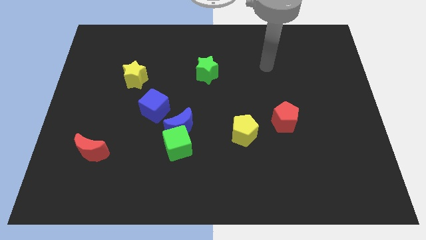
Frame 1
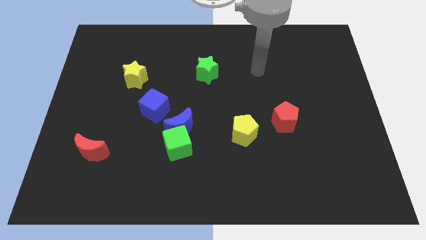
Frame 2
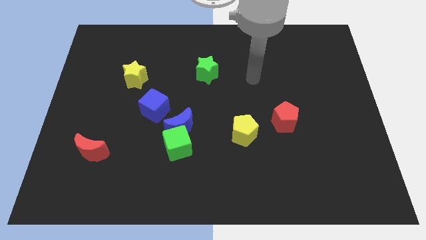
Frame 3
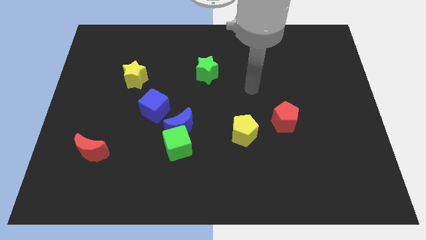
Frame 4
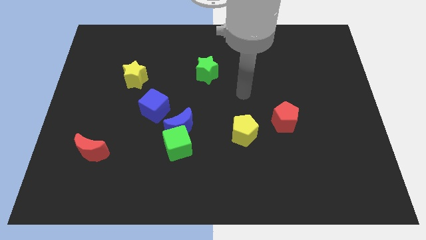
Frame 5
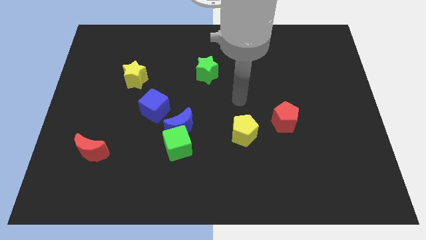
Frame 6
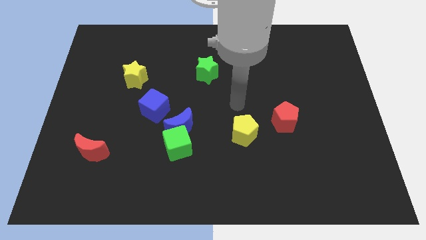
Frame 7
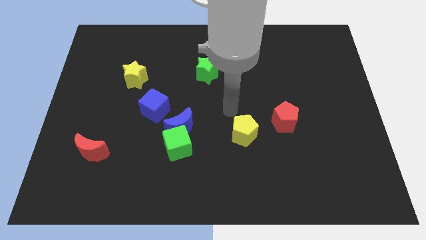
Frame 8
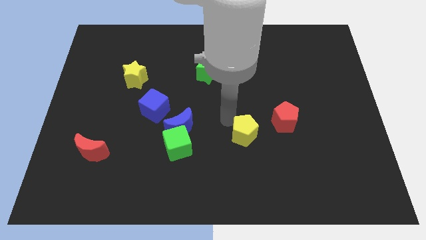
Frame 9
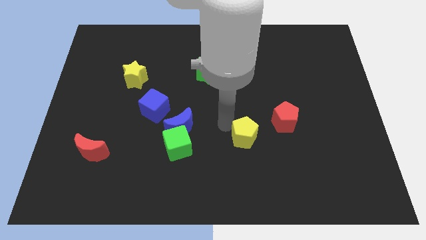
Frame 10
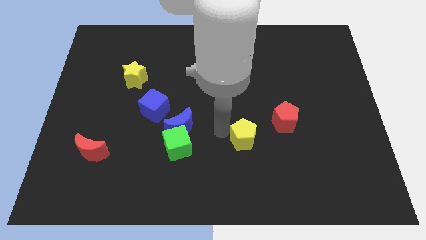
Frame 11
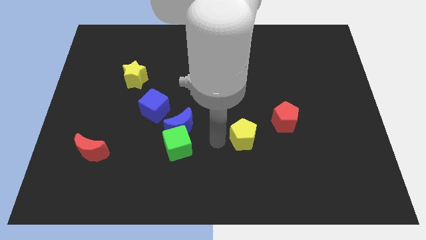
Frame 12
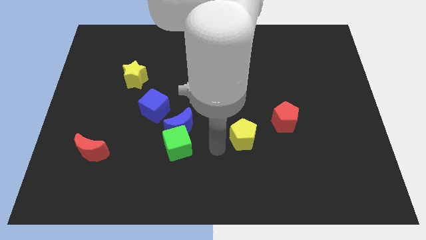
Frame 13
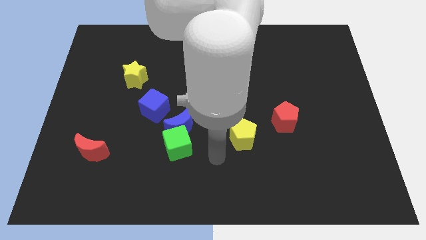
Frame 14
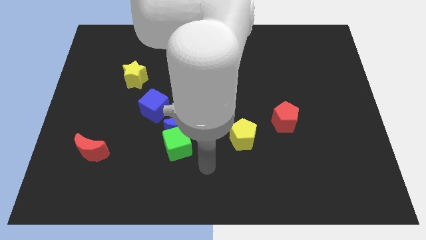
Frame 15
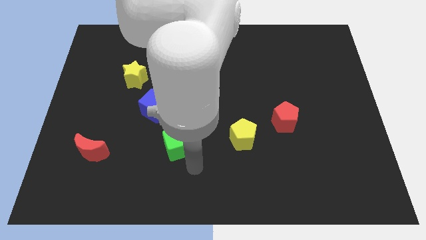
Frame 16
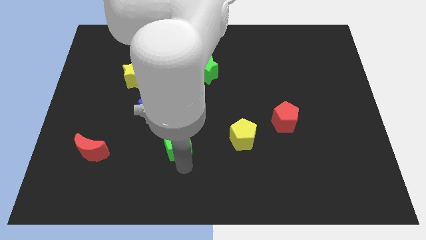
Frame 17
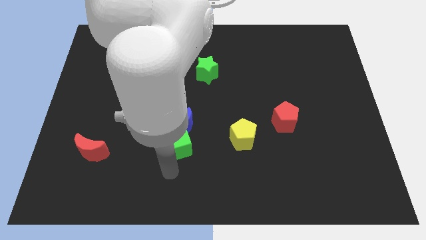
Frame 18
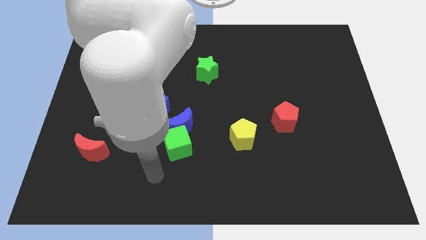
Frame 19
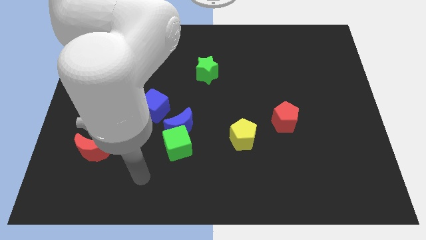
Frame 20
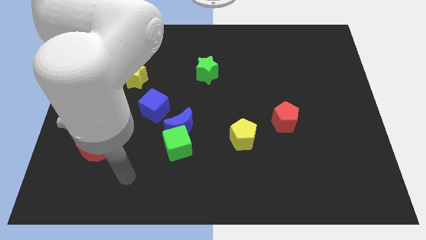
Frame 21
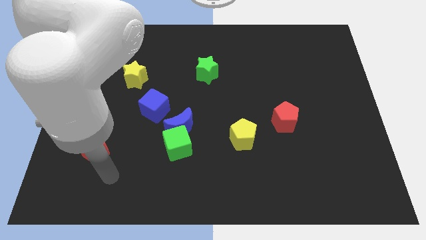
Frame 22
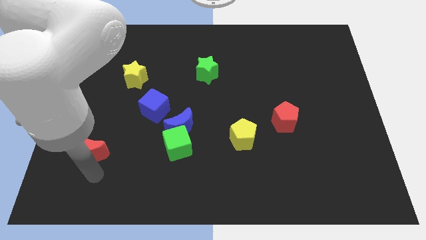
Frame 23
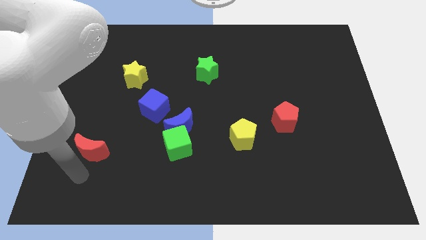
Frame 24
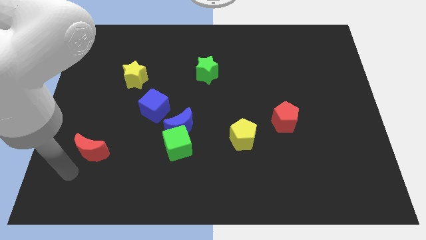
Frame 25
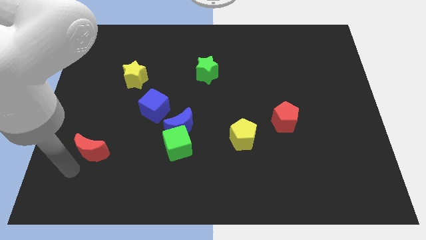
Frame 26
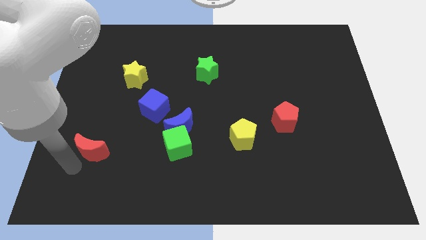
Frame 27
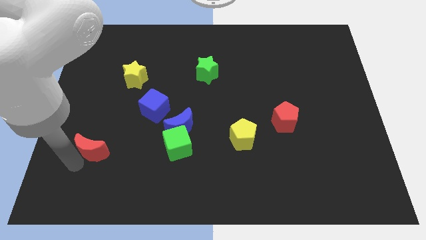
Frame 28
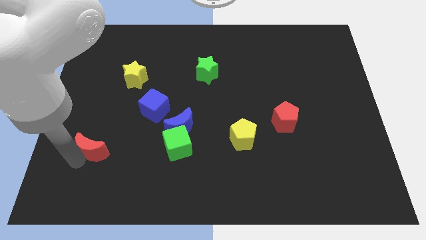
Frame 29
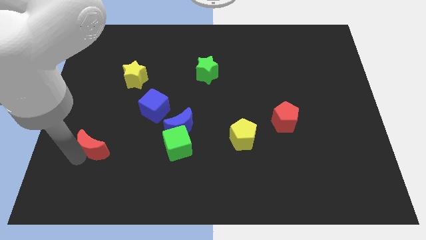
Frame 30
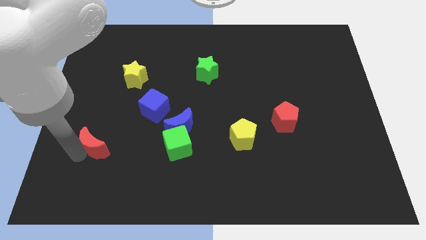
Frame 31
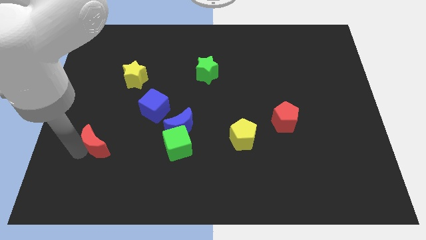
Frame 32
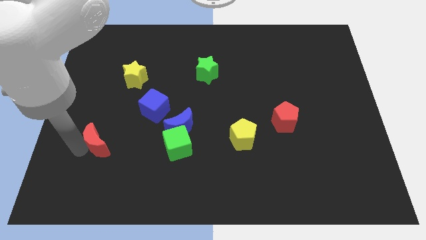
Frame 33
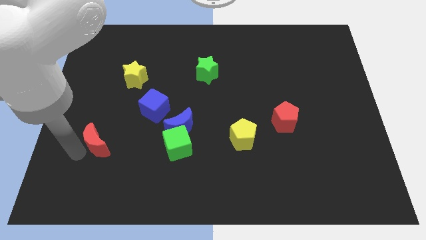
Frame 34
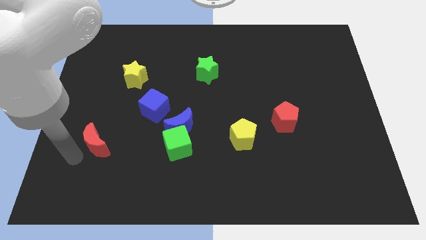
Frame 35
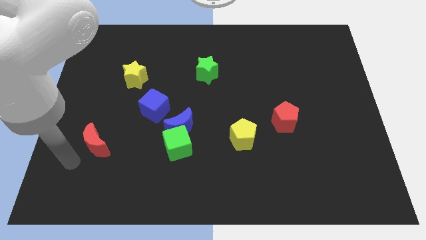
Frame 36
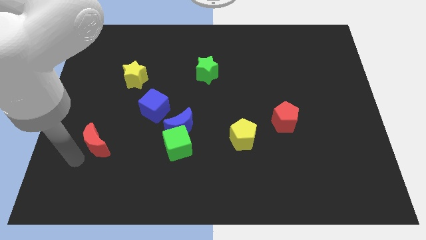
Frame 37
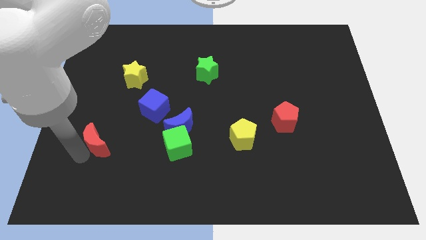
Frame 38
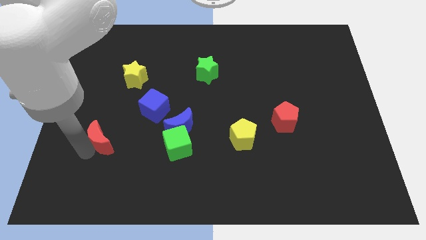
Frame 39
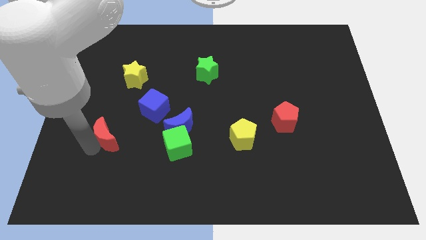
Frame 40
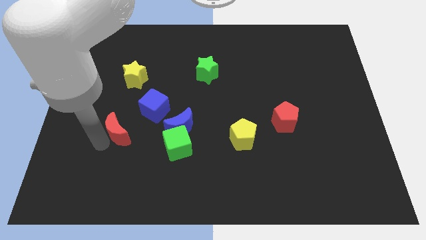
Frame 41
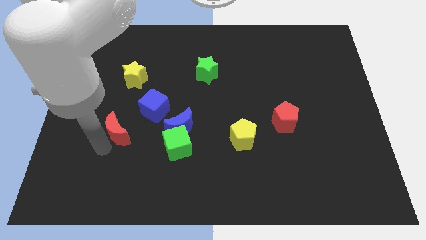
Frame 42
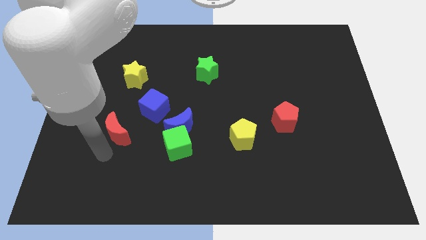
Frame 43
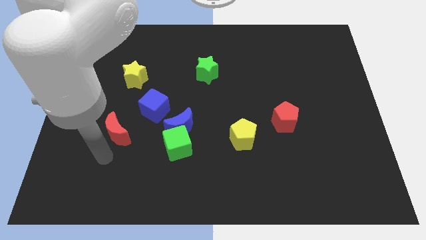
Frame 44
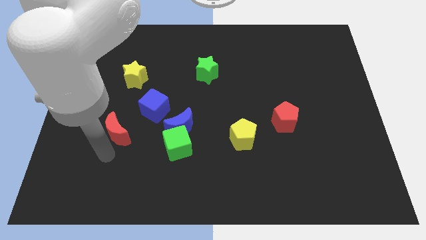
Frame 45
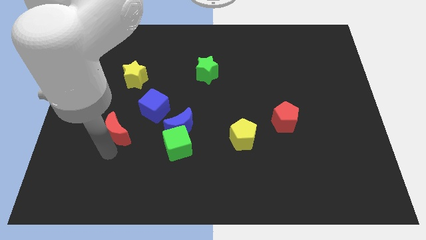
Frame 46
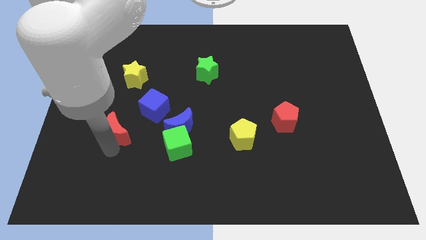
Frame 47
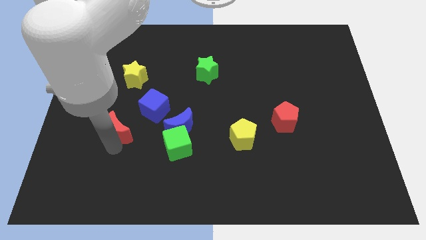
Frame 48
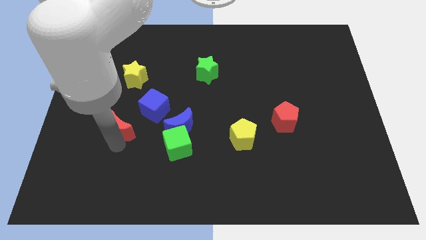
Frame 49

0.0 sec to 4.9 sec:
push the red moon to the bottom of the yellow star

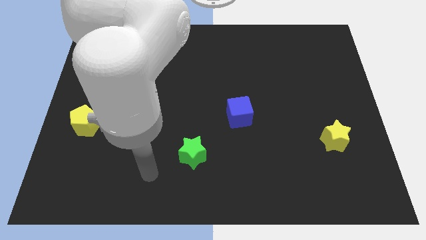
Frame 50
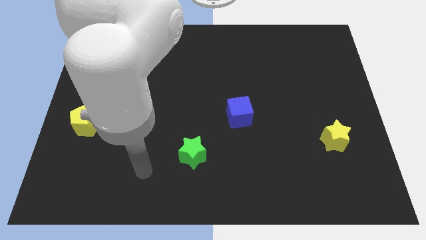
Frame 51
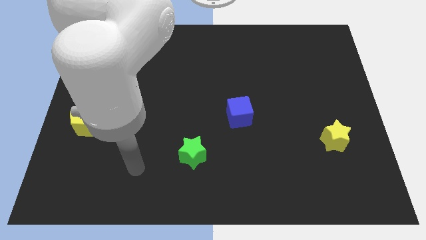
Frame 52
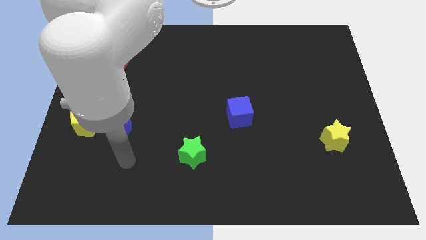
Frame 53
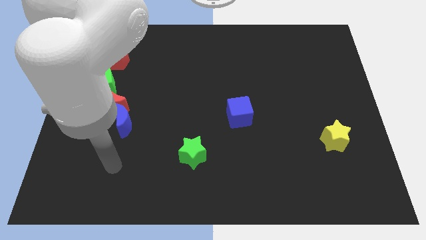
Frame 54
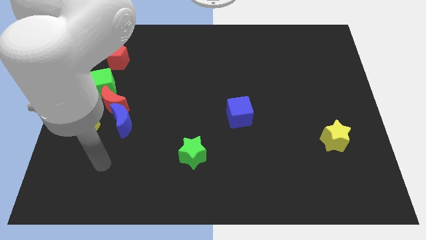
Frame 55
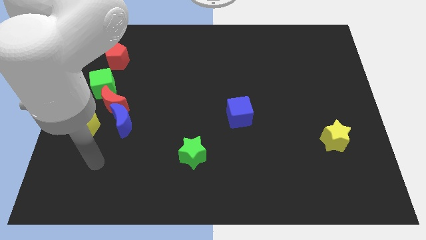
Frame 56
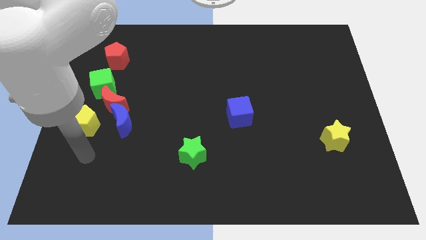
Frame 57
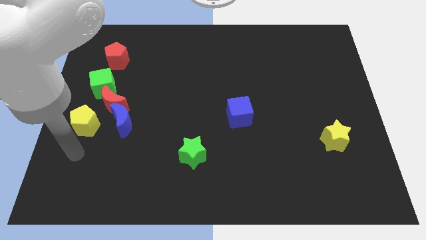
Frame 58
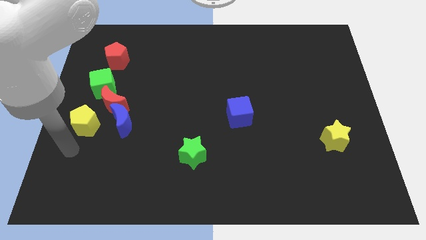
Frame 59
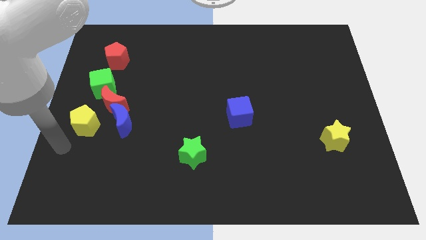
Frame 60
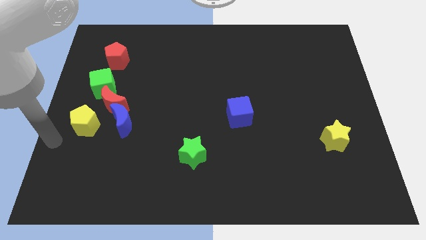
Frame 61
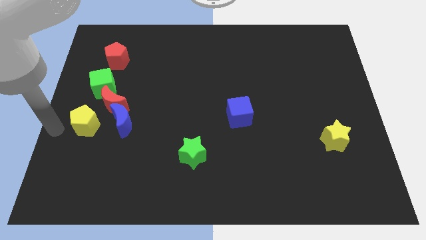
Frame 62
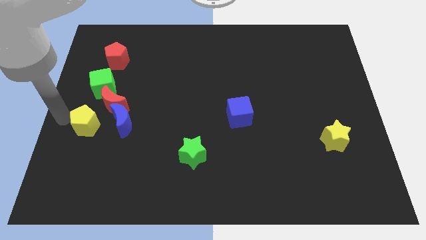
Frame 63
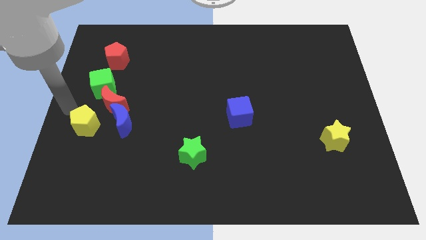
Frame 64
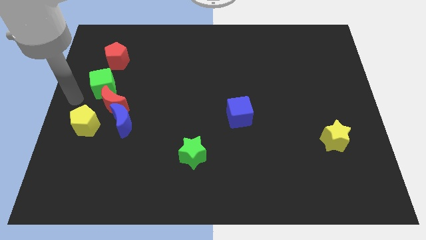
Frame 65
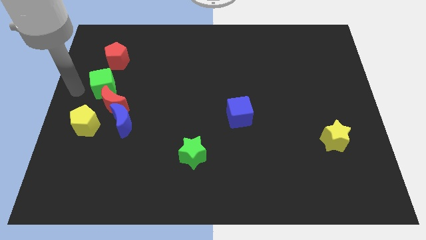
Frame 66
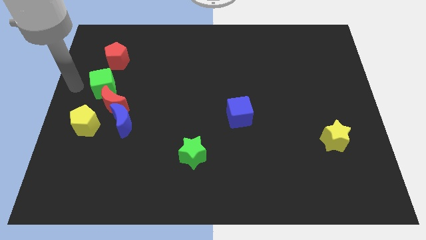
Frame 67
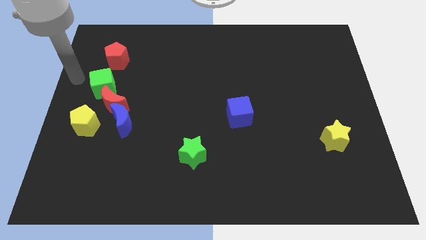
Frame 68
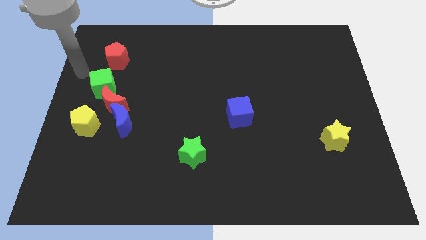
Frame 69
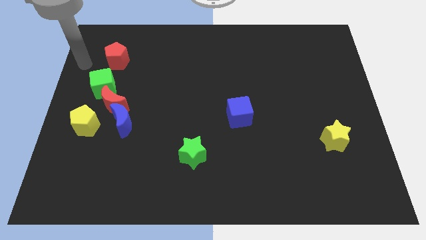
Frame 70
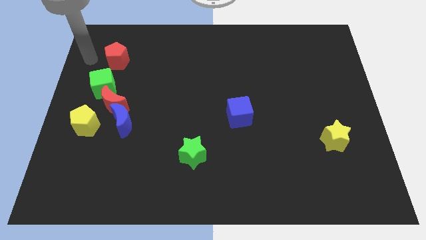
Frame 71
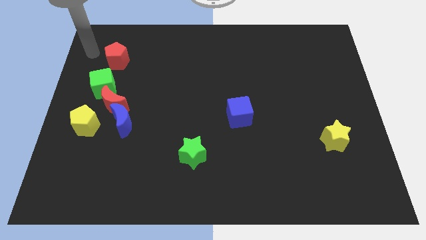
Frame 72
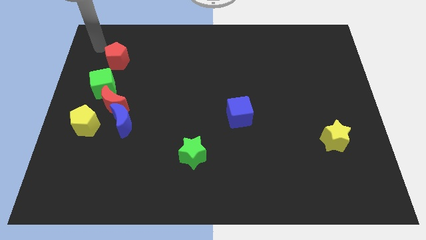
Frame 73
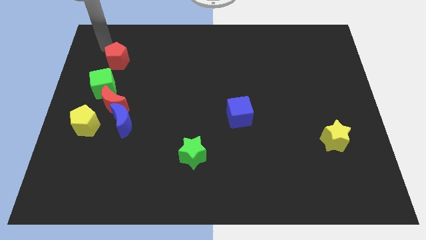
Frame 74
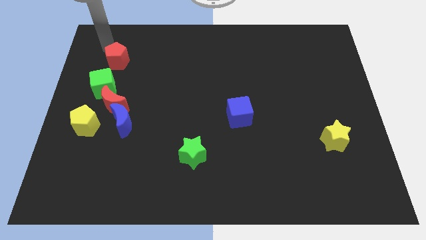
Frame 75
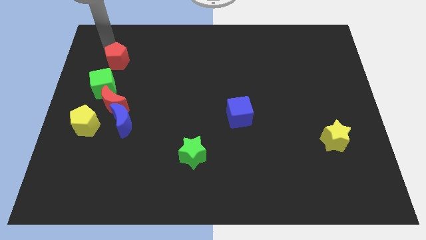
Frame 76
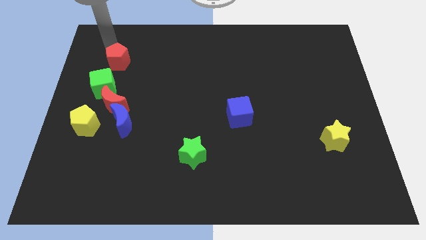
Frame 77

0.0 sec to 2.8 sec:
move the red pentagon to the top right side of the green cube

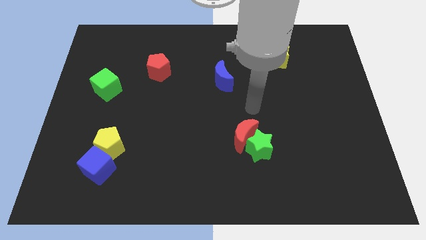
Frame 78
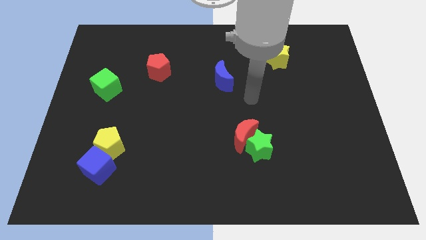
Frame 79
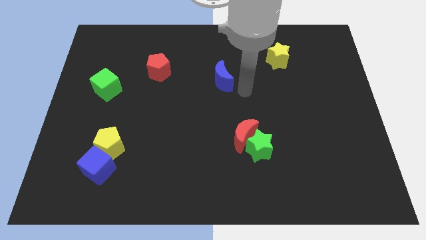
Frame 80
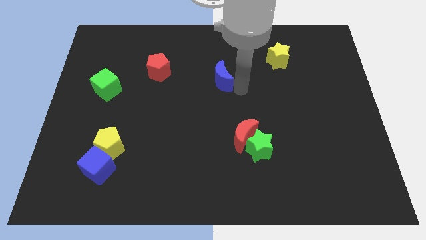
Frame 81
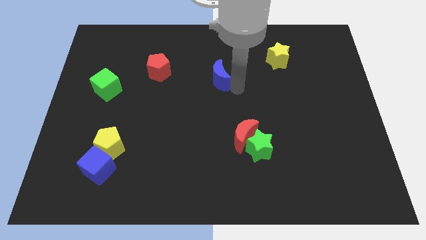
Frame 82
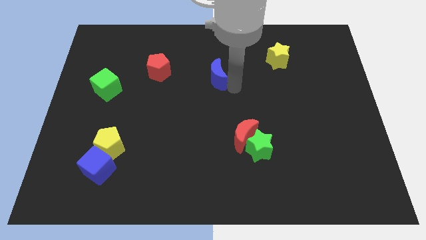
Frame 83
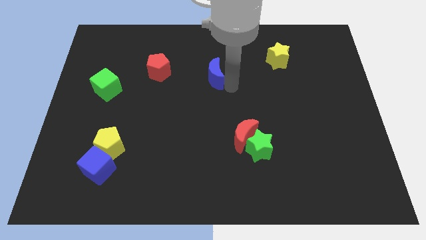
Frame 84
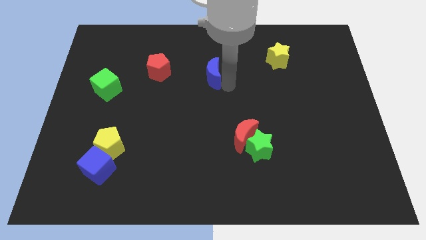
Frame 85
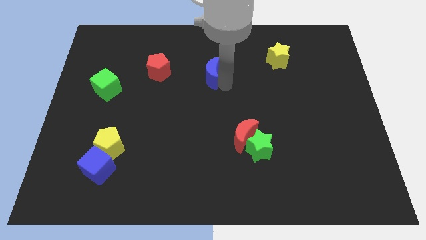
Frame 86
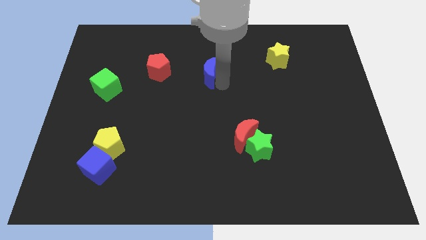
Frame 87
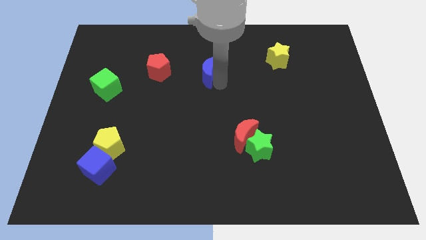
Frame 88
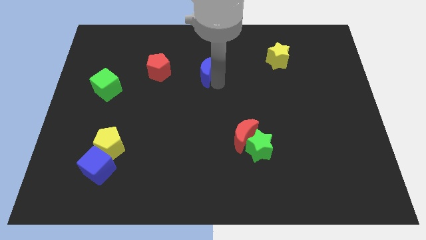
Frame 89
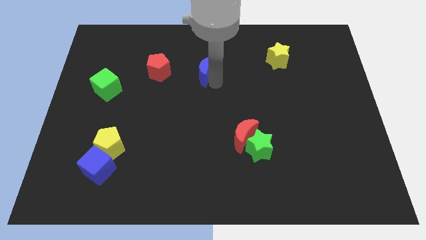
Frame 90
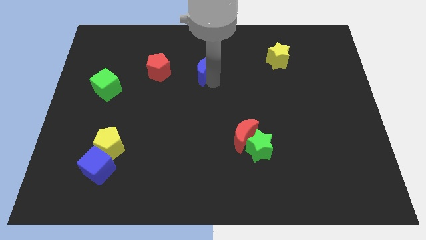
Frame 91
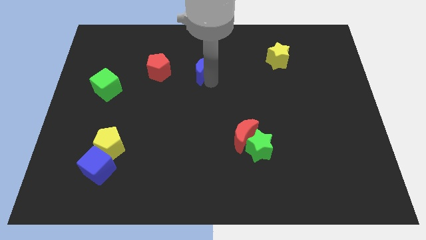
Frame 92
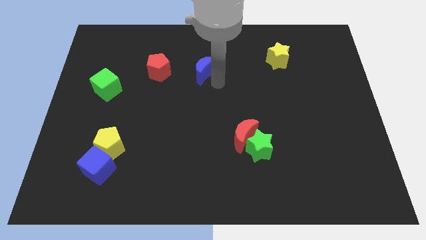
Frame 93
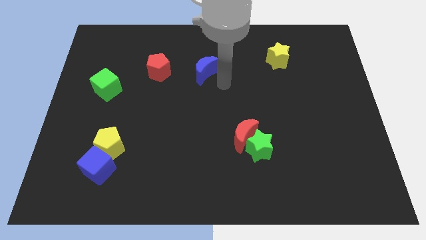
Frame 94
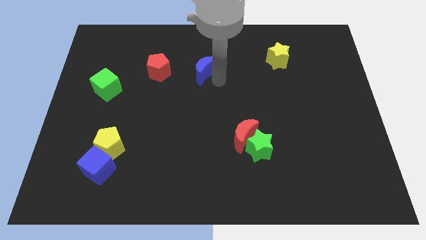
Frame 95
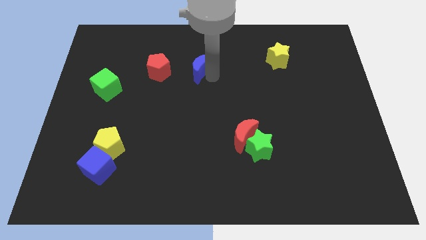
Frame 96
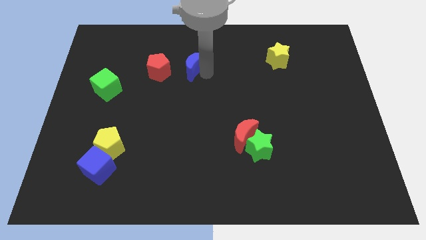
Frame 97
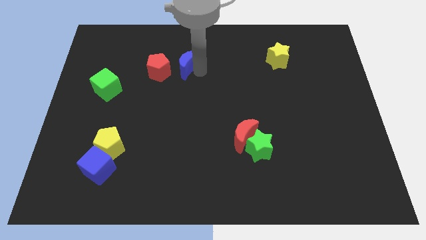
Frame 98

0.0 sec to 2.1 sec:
push the blue moon to the top right of the red pentagon
